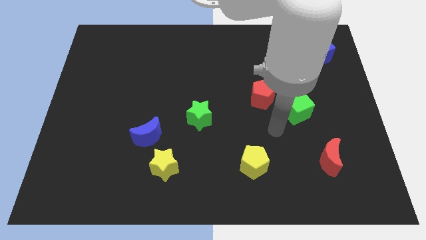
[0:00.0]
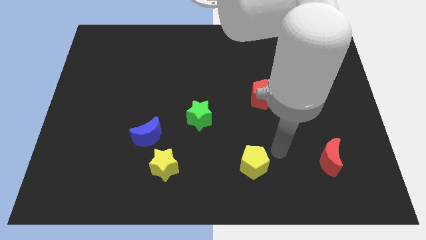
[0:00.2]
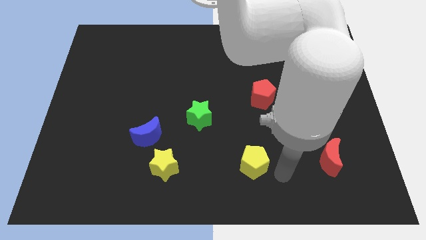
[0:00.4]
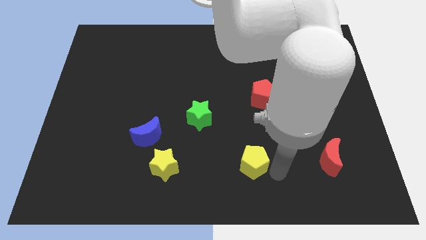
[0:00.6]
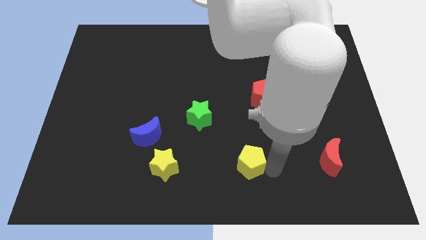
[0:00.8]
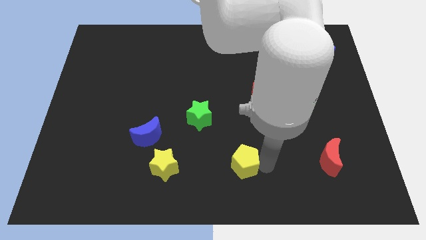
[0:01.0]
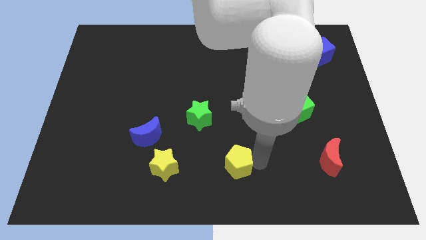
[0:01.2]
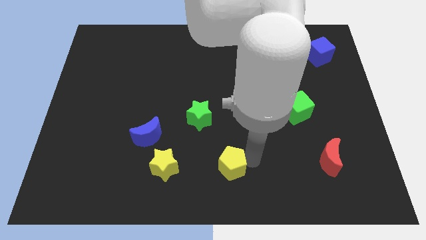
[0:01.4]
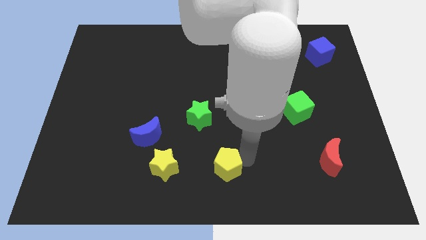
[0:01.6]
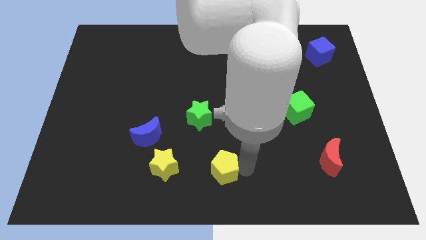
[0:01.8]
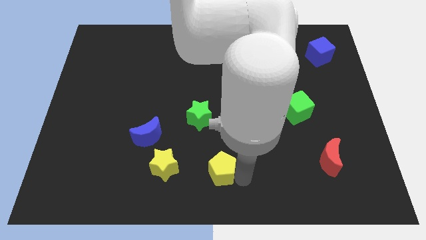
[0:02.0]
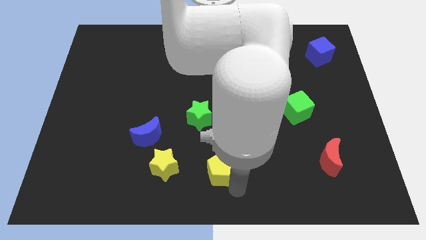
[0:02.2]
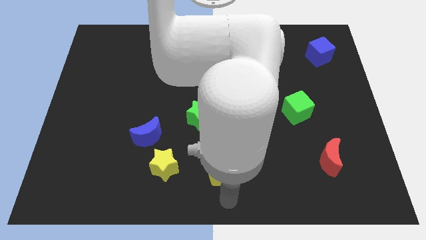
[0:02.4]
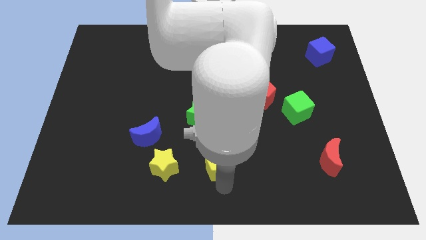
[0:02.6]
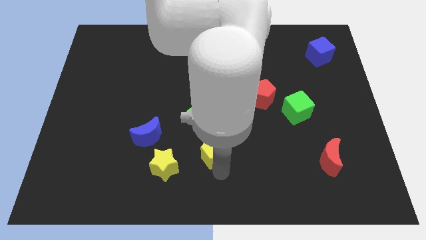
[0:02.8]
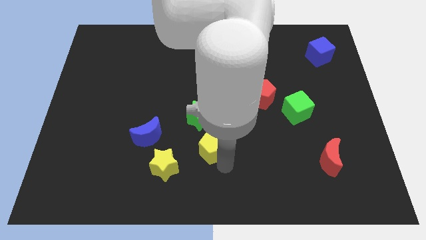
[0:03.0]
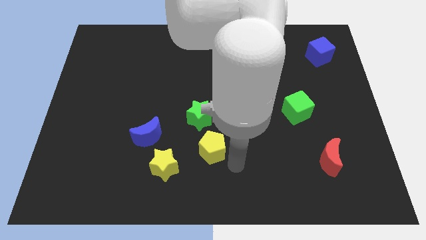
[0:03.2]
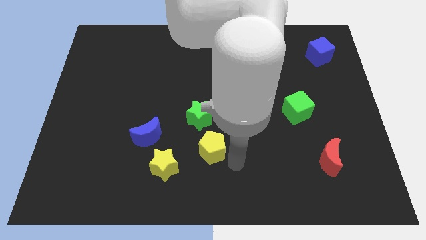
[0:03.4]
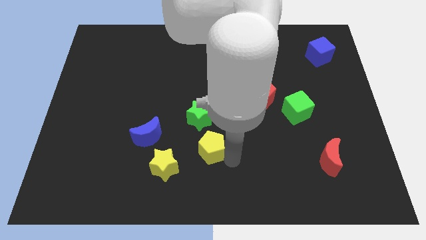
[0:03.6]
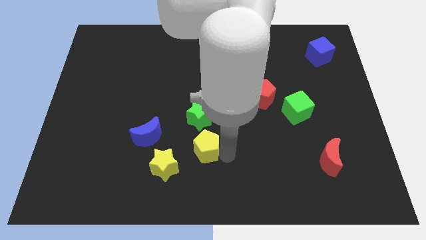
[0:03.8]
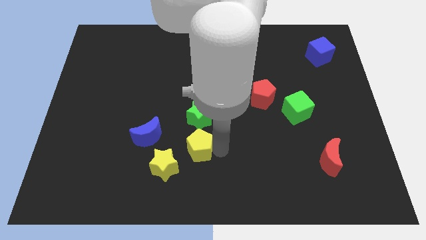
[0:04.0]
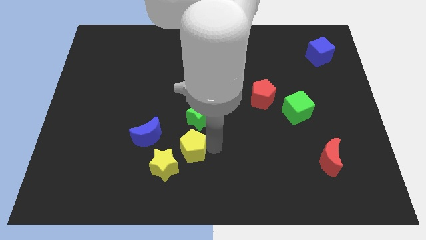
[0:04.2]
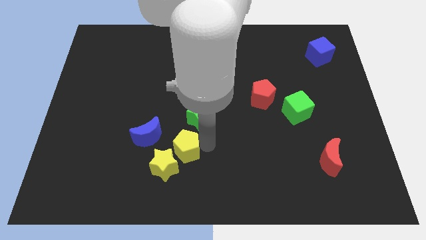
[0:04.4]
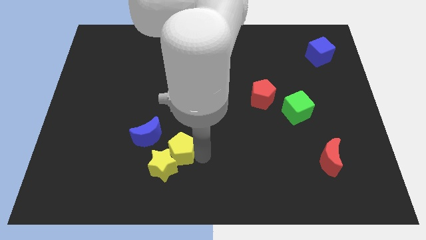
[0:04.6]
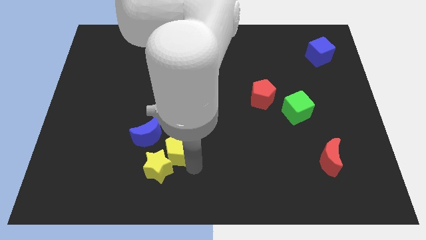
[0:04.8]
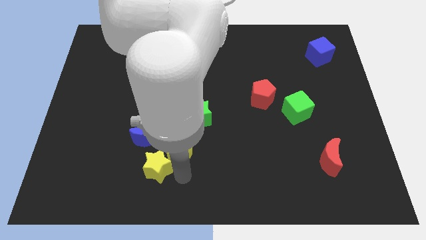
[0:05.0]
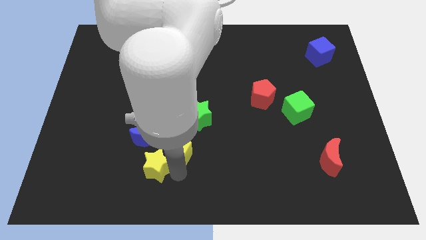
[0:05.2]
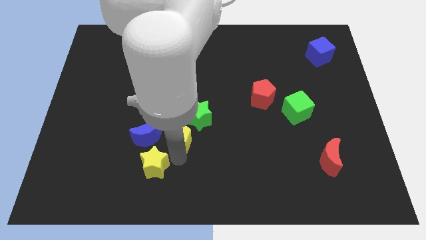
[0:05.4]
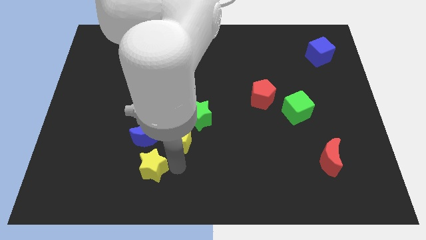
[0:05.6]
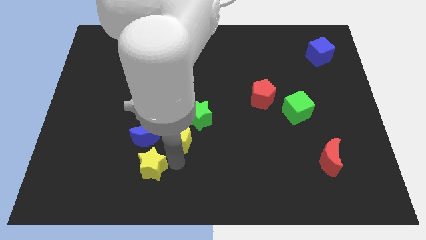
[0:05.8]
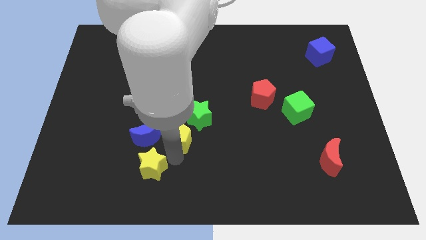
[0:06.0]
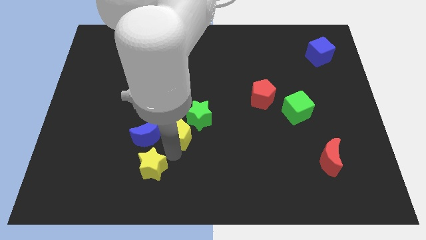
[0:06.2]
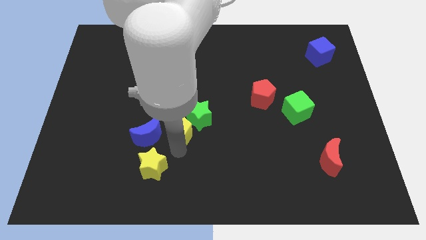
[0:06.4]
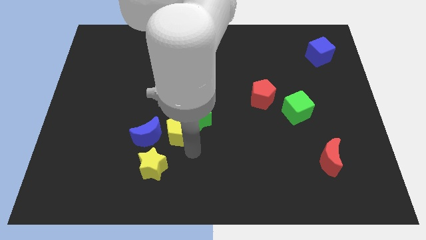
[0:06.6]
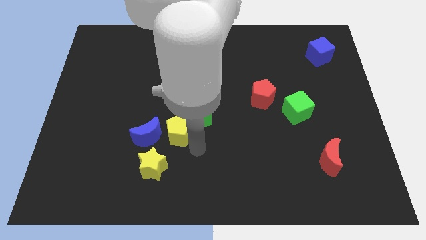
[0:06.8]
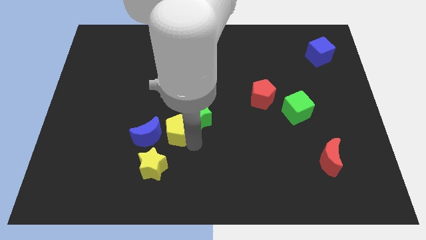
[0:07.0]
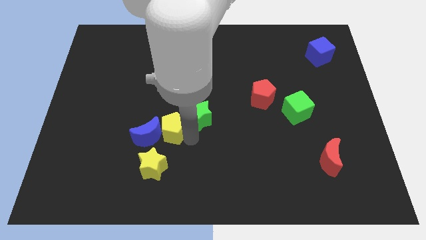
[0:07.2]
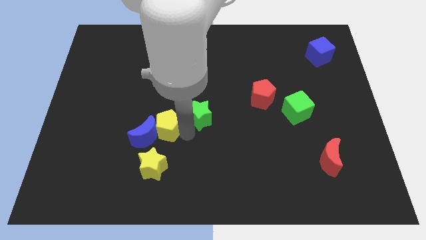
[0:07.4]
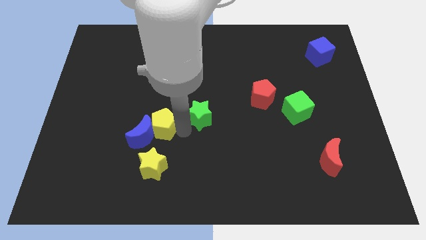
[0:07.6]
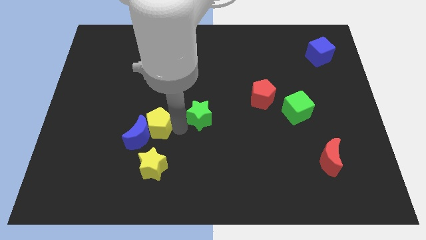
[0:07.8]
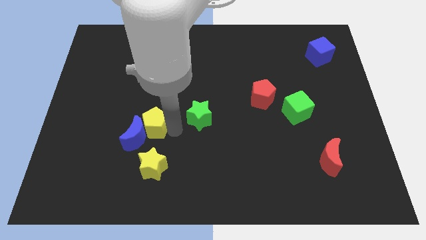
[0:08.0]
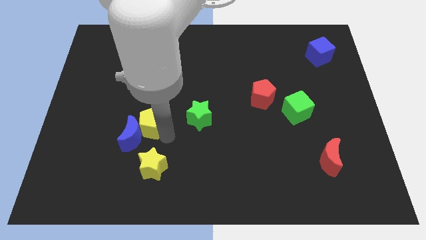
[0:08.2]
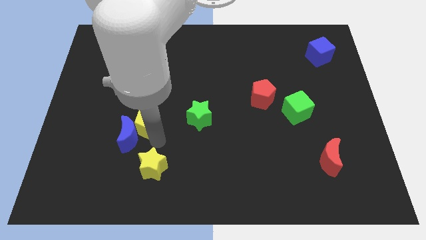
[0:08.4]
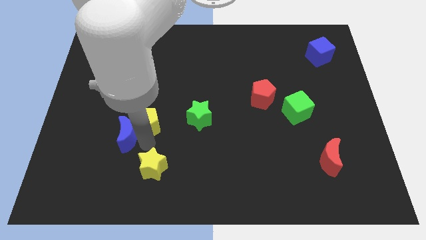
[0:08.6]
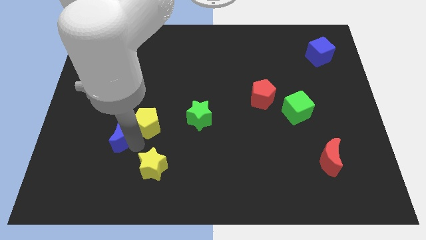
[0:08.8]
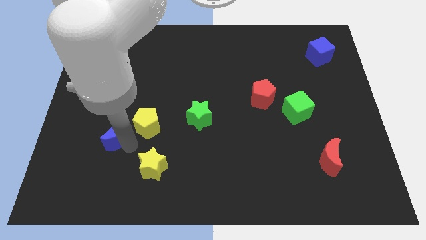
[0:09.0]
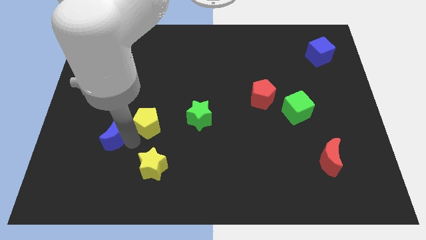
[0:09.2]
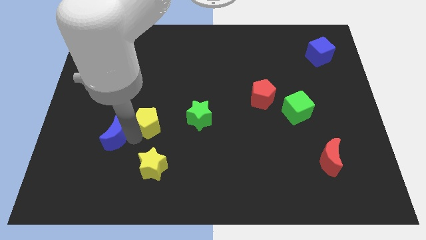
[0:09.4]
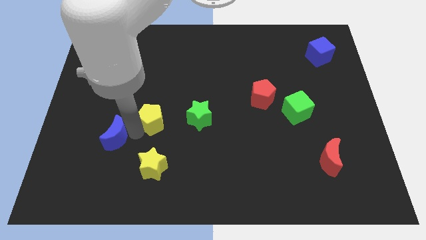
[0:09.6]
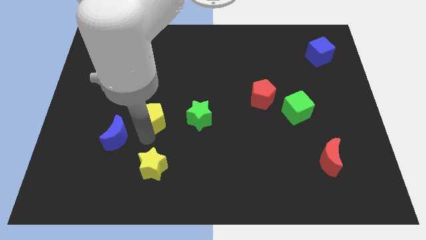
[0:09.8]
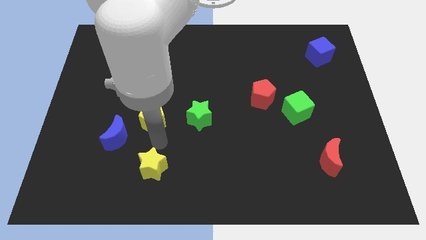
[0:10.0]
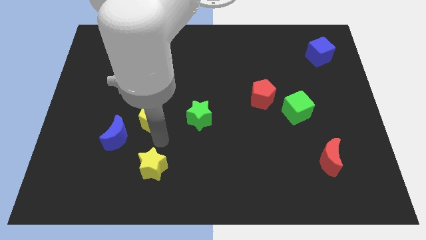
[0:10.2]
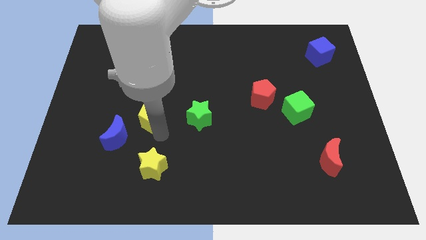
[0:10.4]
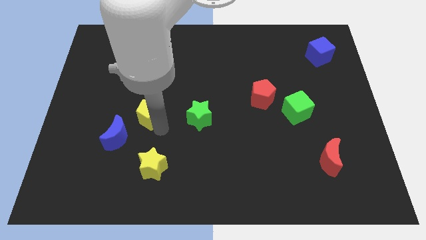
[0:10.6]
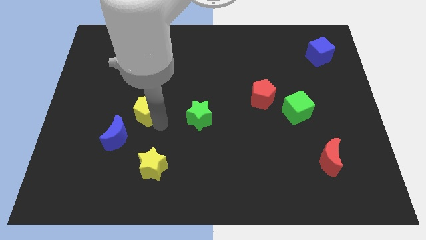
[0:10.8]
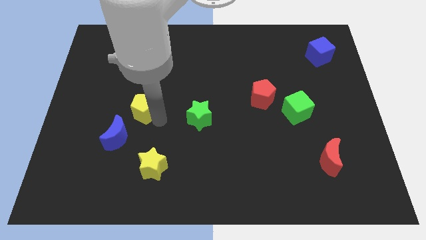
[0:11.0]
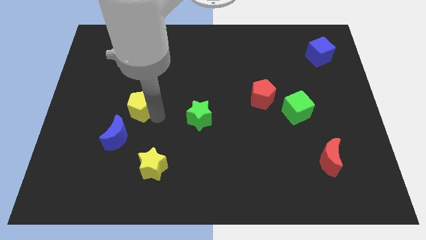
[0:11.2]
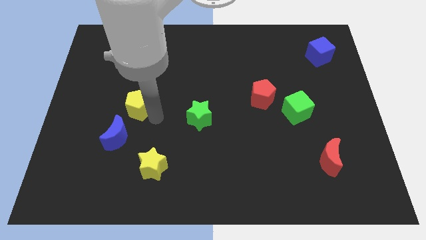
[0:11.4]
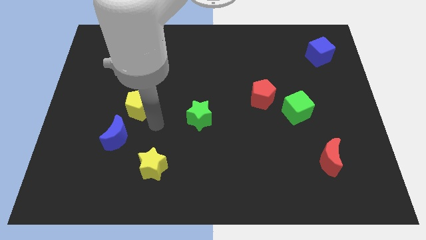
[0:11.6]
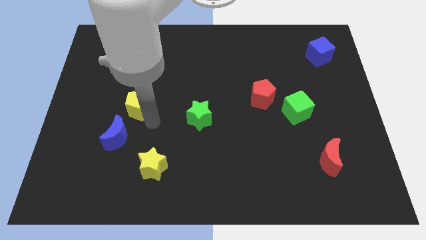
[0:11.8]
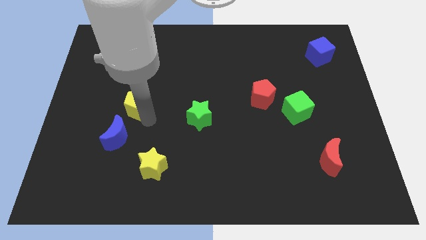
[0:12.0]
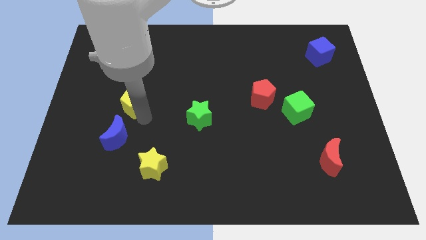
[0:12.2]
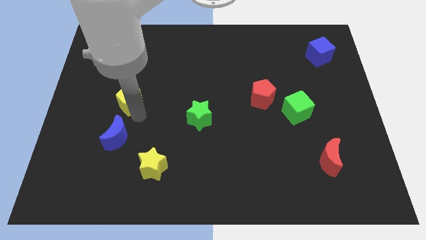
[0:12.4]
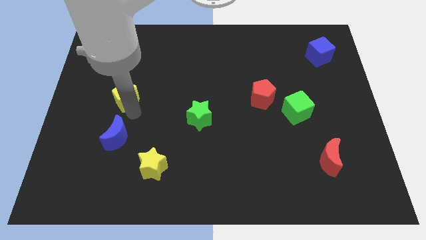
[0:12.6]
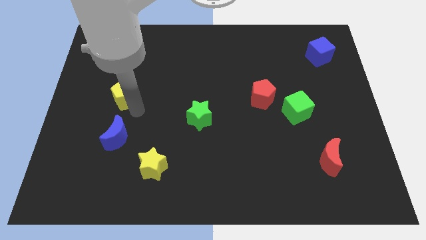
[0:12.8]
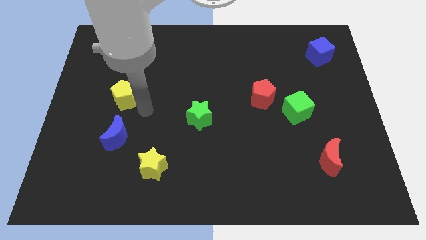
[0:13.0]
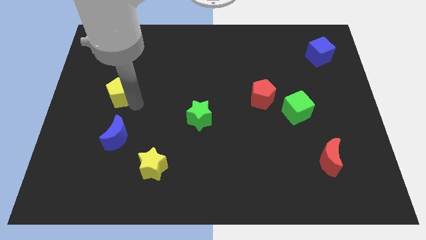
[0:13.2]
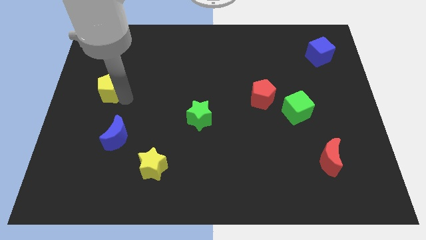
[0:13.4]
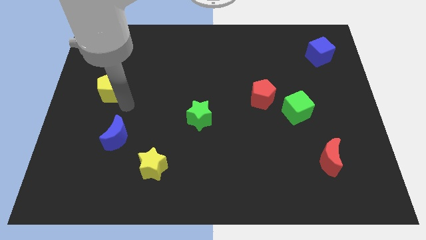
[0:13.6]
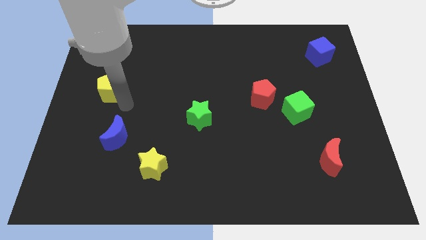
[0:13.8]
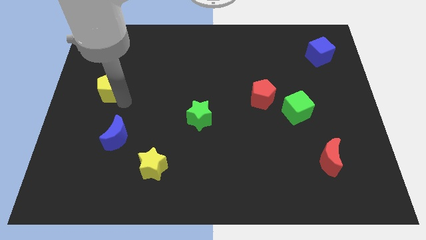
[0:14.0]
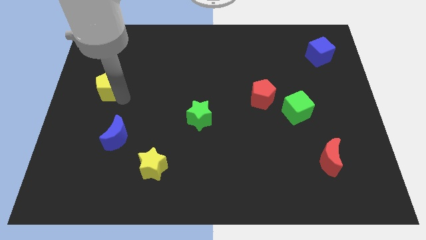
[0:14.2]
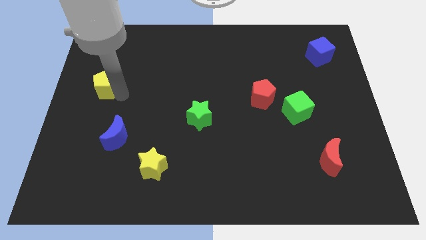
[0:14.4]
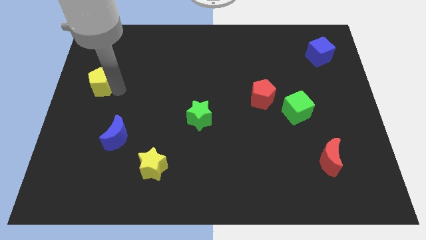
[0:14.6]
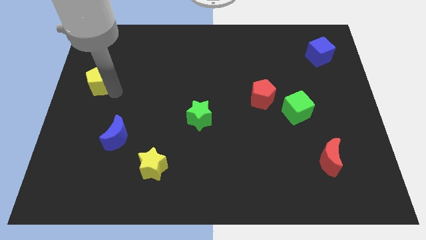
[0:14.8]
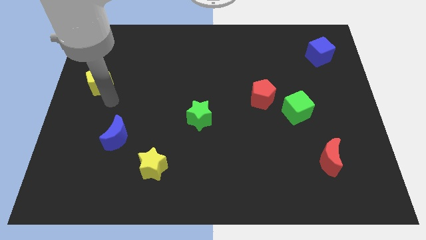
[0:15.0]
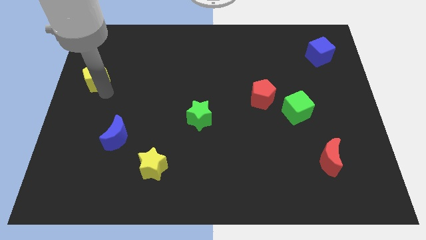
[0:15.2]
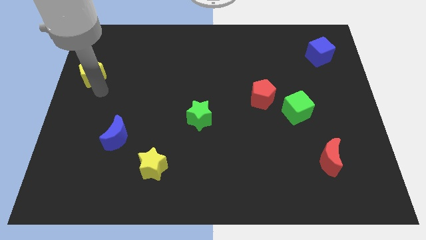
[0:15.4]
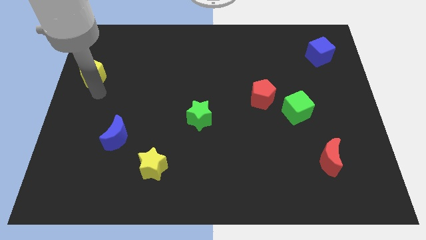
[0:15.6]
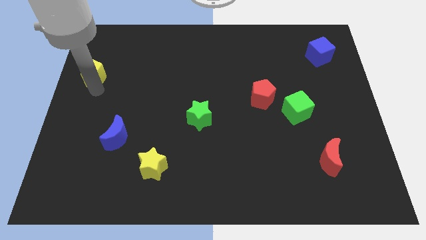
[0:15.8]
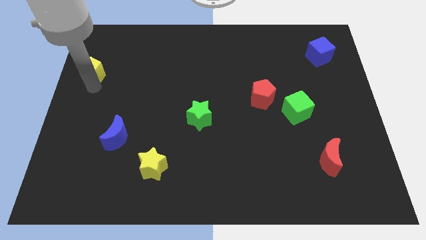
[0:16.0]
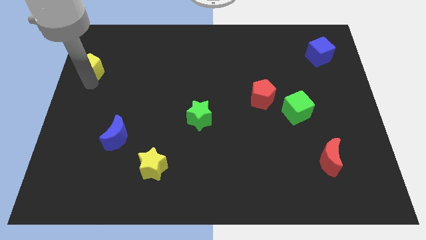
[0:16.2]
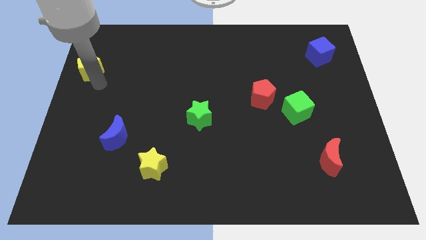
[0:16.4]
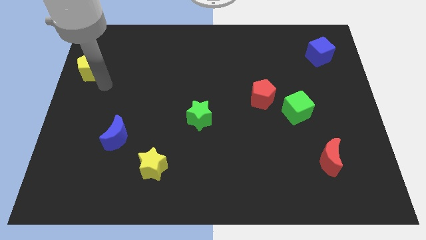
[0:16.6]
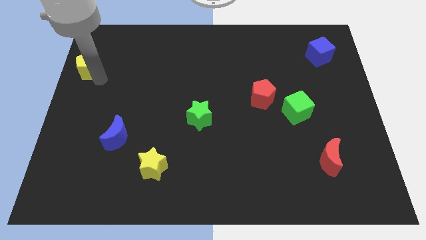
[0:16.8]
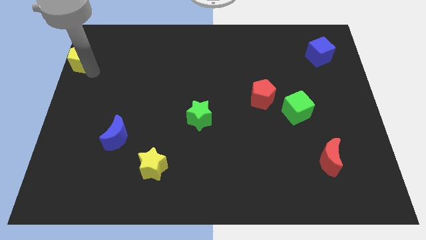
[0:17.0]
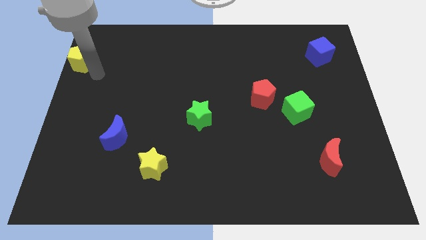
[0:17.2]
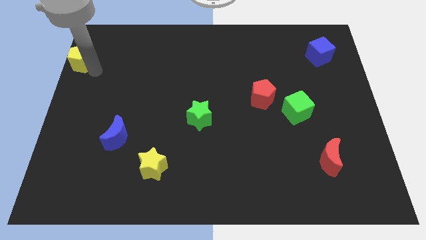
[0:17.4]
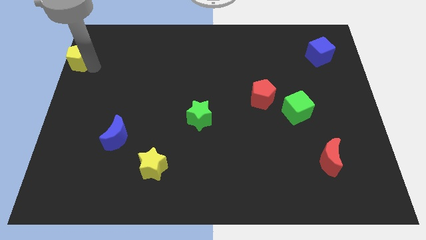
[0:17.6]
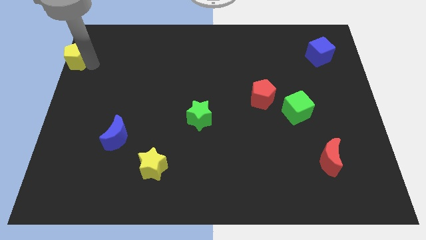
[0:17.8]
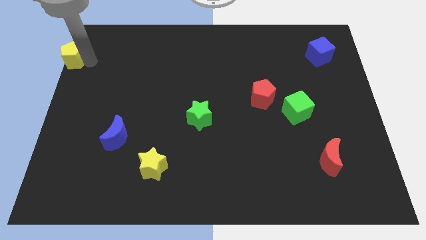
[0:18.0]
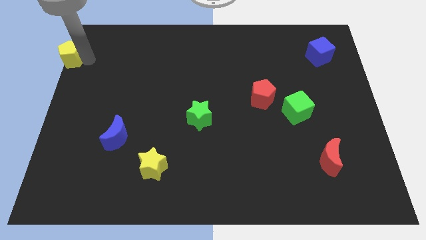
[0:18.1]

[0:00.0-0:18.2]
put the yellow pentagon to the top left of the board
